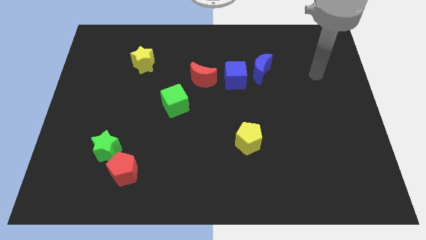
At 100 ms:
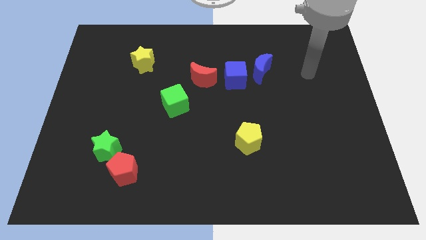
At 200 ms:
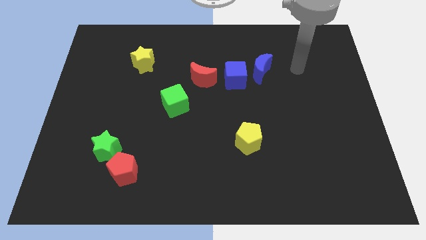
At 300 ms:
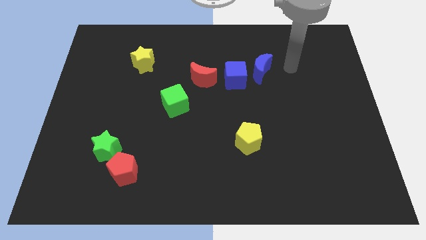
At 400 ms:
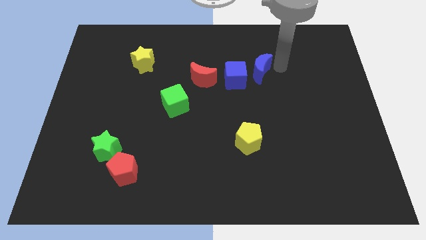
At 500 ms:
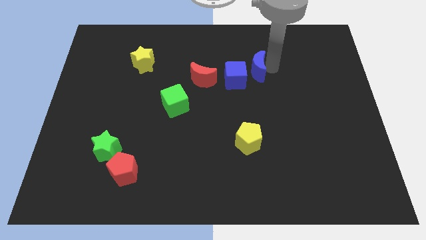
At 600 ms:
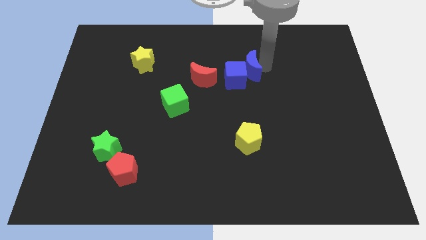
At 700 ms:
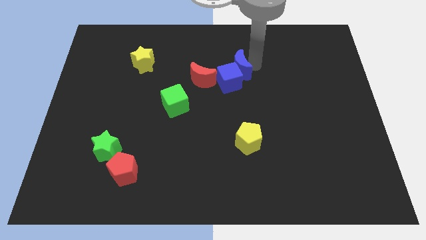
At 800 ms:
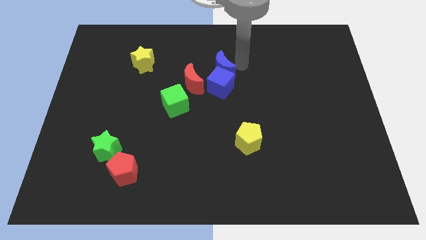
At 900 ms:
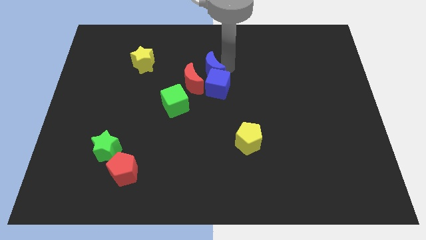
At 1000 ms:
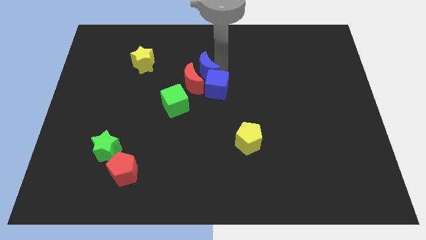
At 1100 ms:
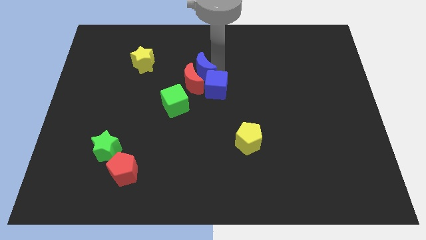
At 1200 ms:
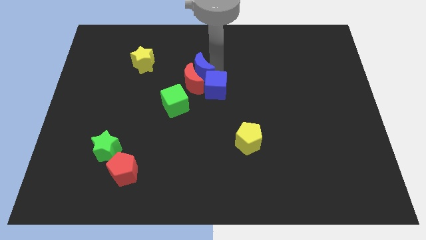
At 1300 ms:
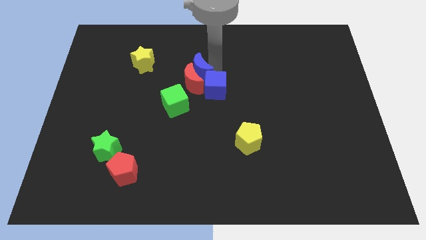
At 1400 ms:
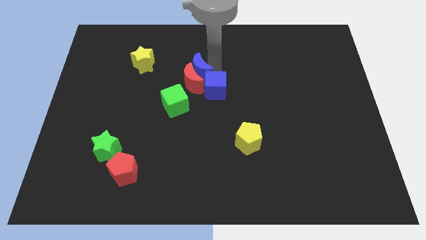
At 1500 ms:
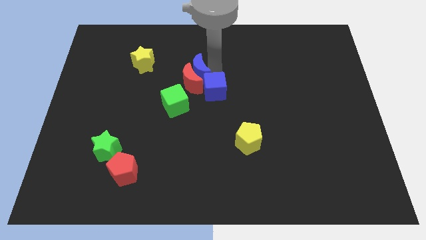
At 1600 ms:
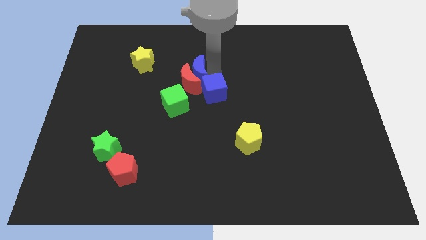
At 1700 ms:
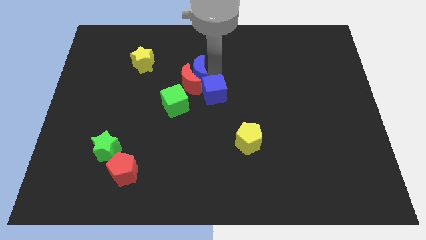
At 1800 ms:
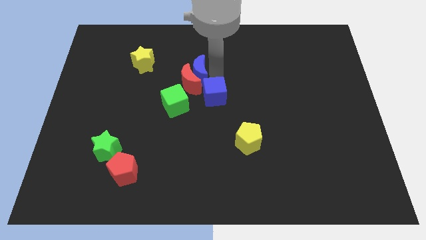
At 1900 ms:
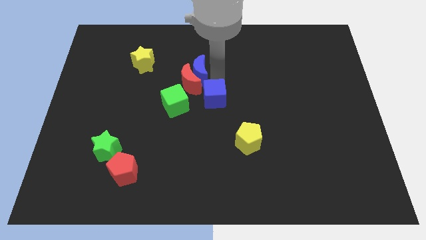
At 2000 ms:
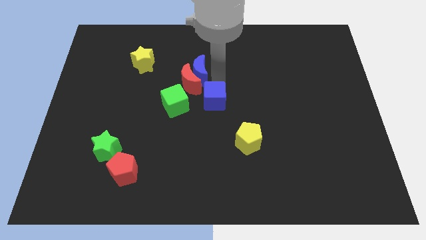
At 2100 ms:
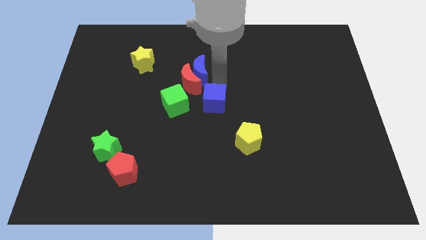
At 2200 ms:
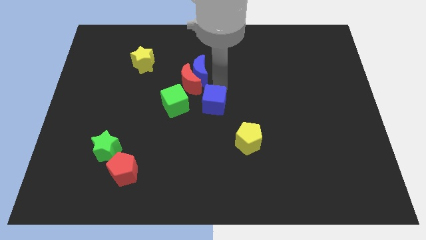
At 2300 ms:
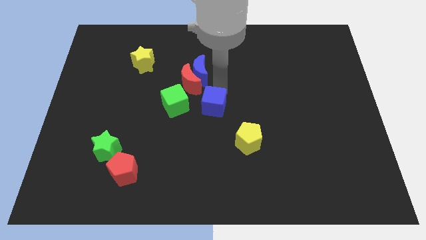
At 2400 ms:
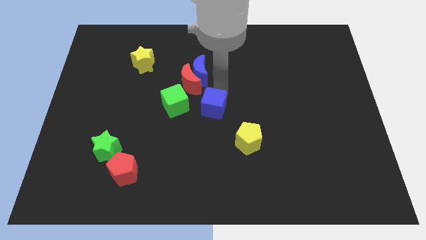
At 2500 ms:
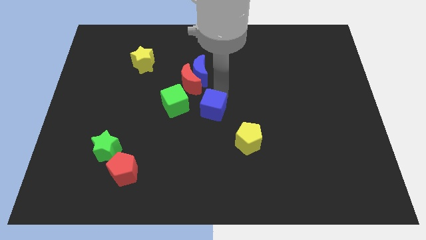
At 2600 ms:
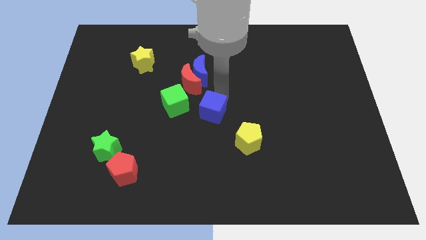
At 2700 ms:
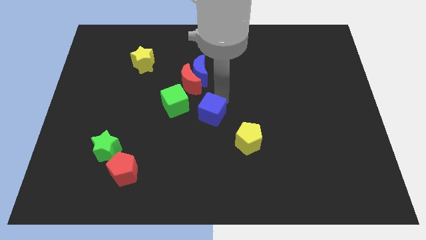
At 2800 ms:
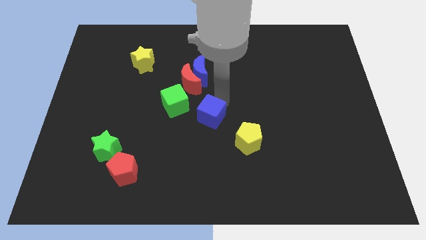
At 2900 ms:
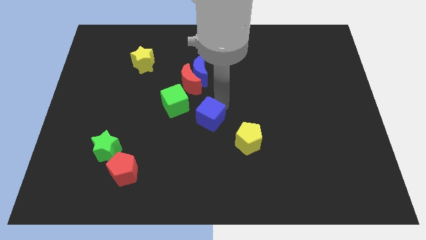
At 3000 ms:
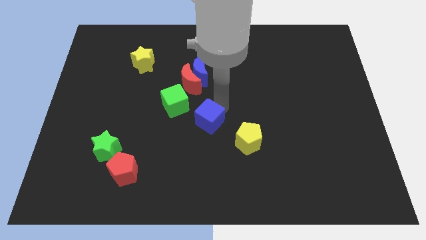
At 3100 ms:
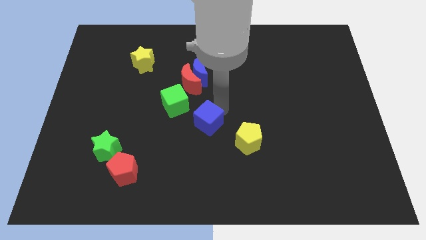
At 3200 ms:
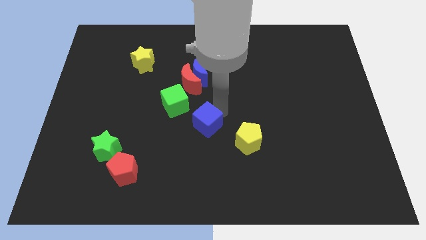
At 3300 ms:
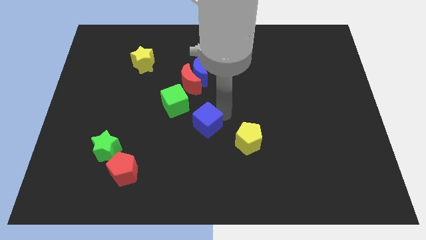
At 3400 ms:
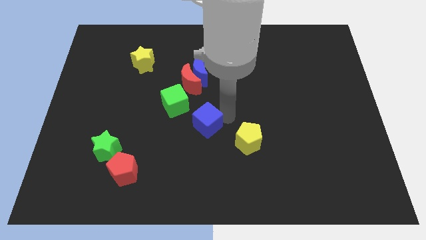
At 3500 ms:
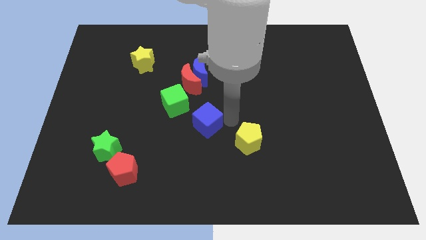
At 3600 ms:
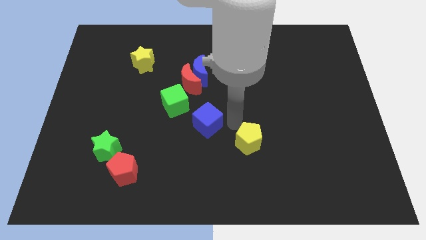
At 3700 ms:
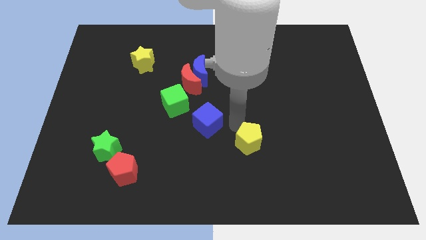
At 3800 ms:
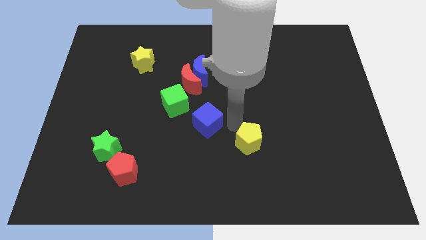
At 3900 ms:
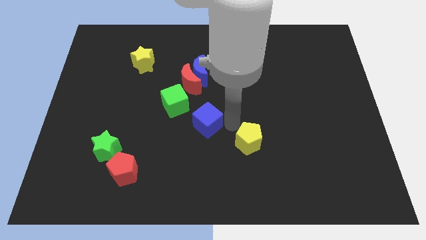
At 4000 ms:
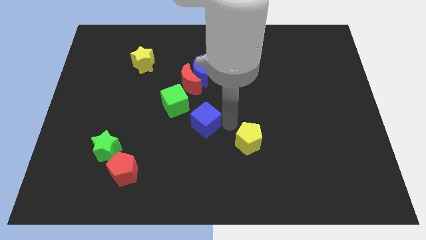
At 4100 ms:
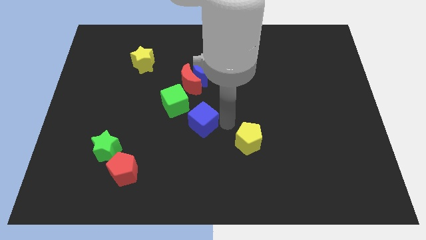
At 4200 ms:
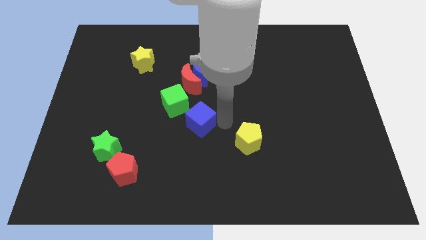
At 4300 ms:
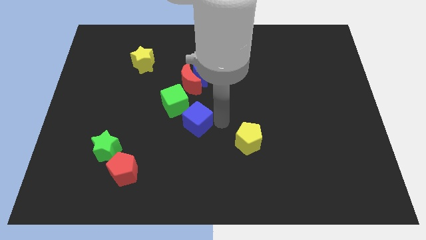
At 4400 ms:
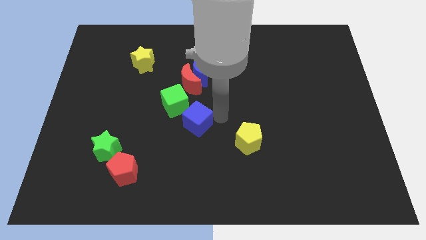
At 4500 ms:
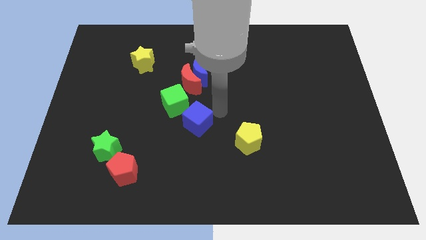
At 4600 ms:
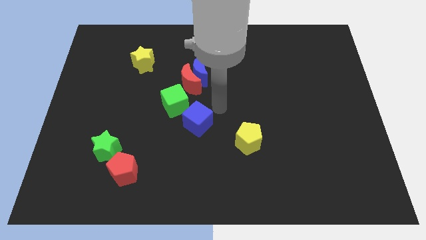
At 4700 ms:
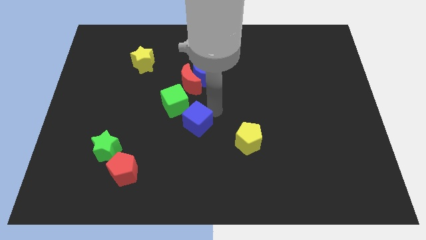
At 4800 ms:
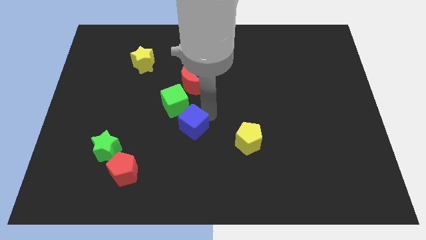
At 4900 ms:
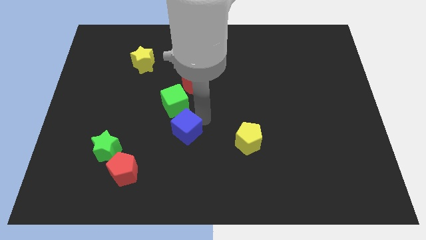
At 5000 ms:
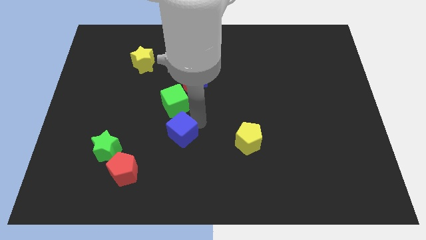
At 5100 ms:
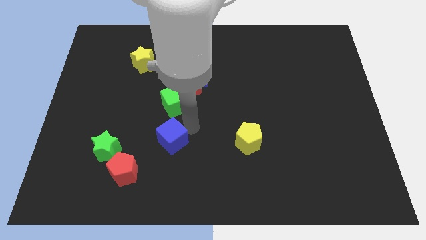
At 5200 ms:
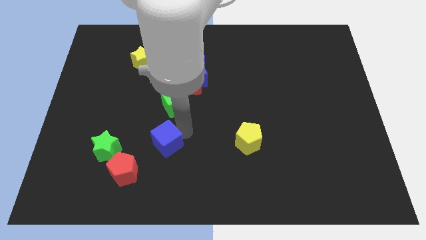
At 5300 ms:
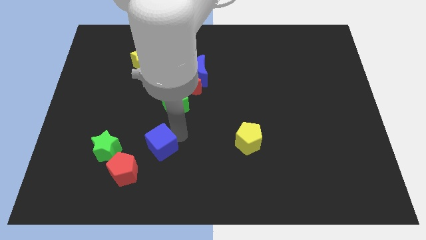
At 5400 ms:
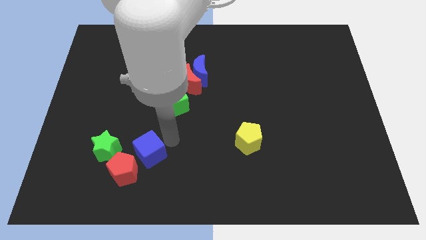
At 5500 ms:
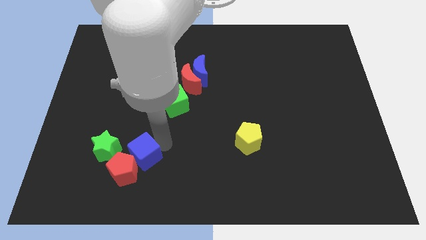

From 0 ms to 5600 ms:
slide the blue cube close to the red pentagon

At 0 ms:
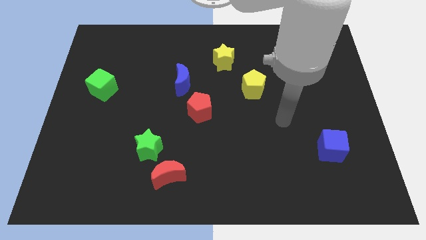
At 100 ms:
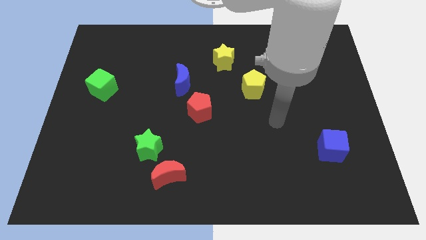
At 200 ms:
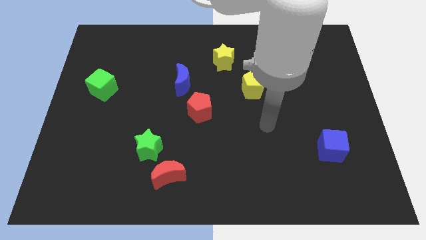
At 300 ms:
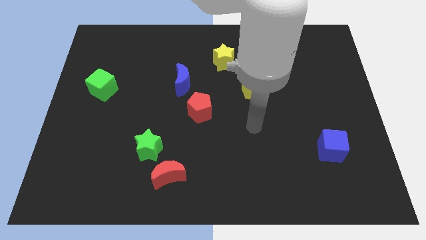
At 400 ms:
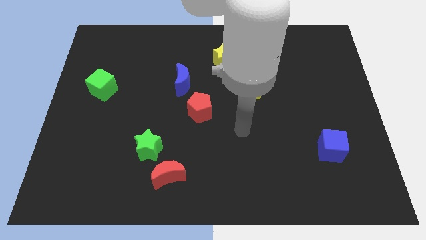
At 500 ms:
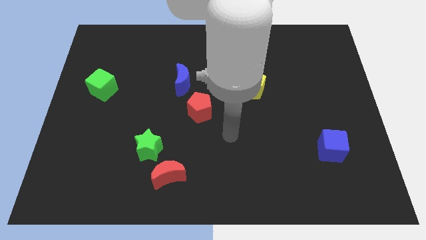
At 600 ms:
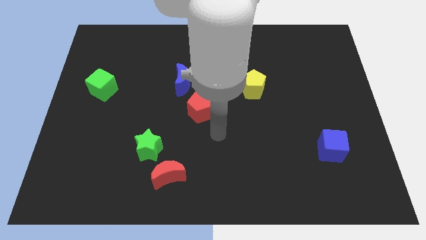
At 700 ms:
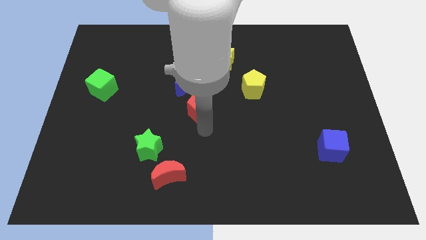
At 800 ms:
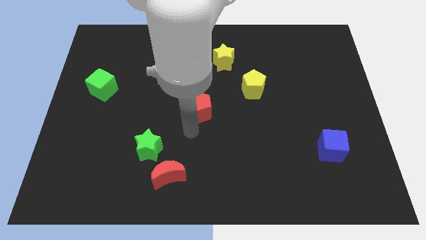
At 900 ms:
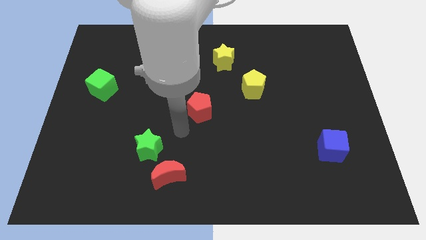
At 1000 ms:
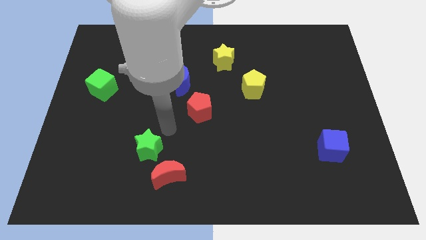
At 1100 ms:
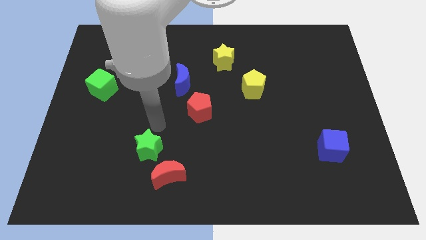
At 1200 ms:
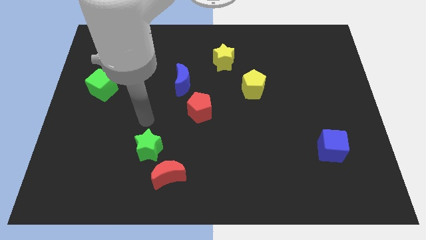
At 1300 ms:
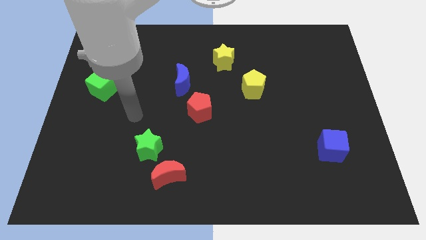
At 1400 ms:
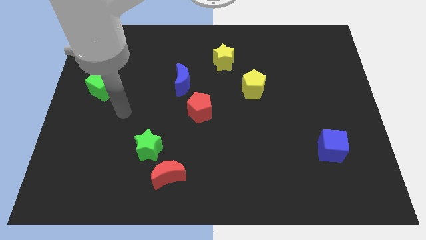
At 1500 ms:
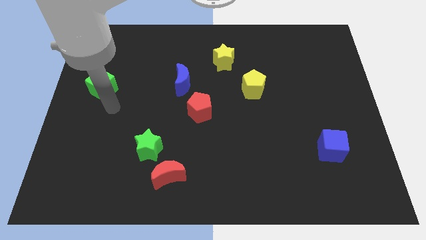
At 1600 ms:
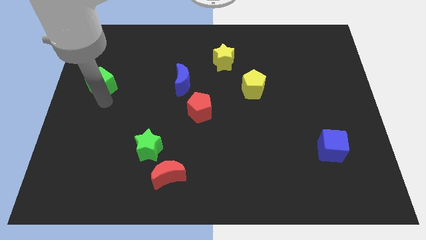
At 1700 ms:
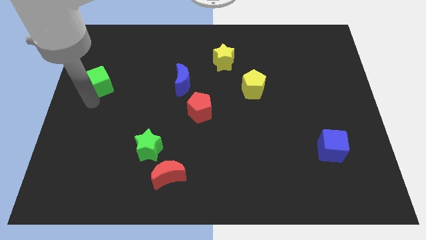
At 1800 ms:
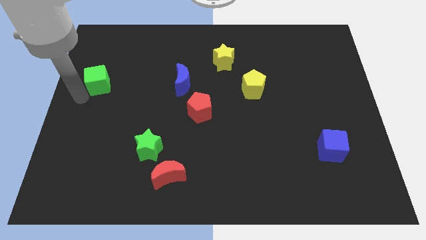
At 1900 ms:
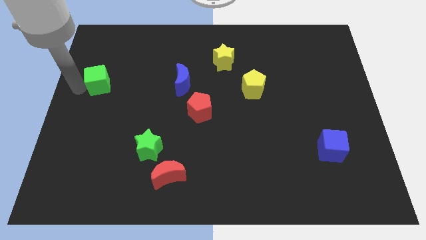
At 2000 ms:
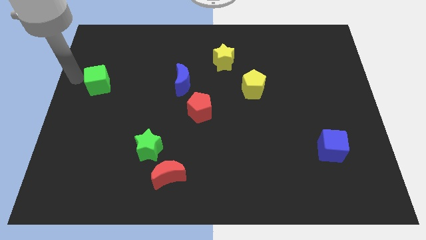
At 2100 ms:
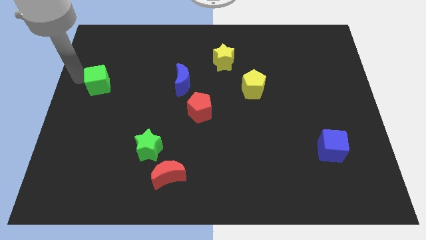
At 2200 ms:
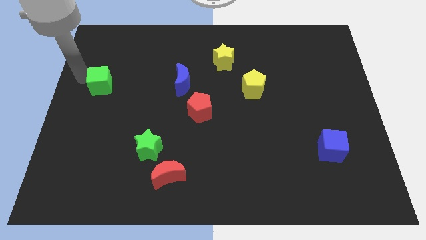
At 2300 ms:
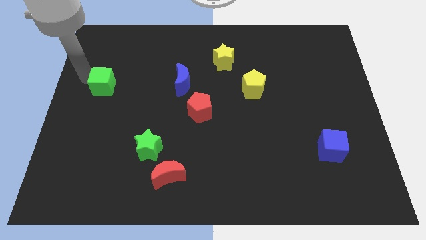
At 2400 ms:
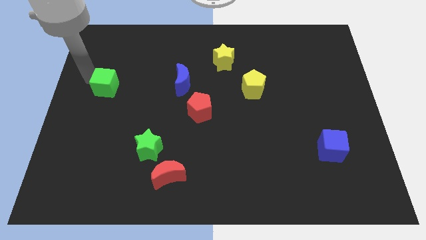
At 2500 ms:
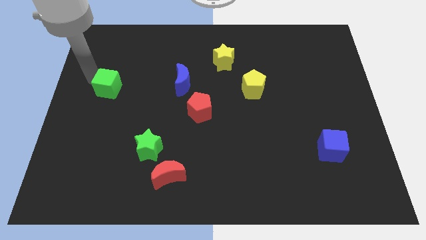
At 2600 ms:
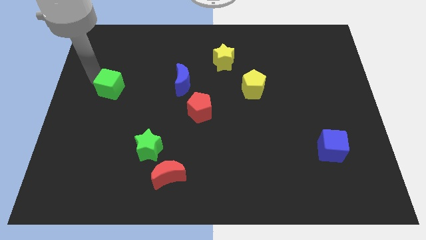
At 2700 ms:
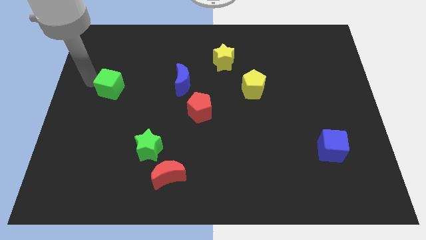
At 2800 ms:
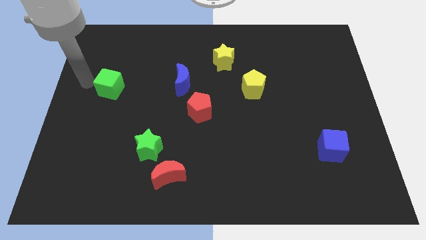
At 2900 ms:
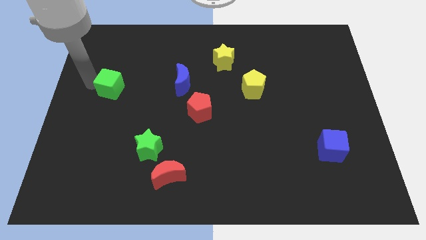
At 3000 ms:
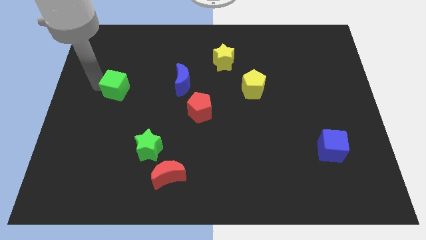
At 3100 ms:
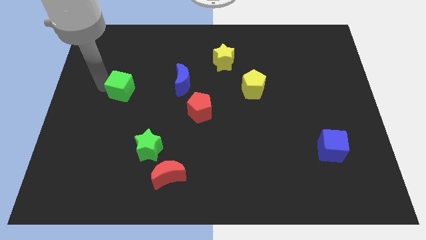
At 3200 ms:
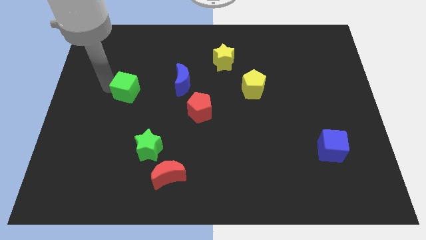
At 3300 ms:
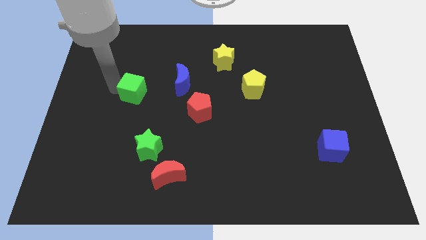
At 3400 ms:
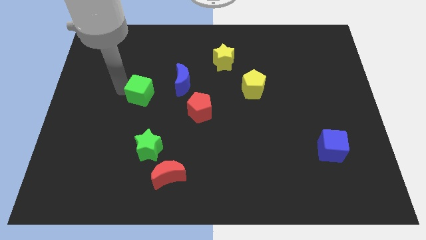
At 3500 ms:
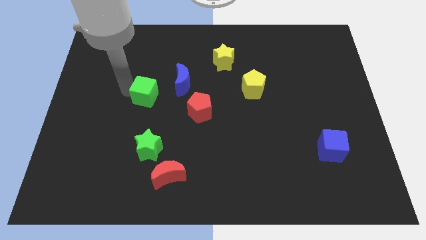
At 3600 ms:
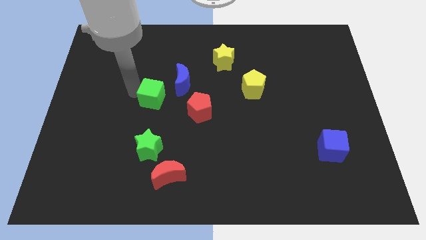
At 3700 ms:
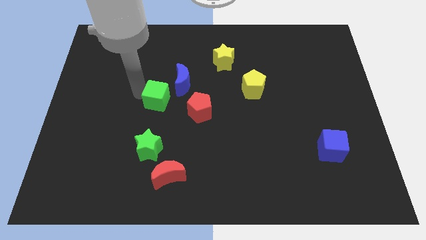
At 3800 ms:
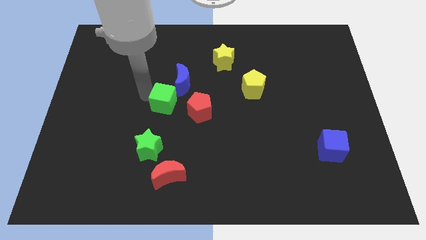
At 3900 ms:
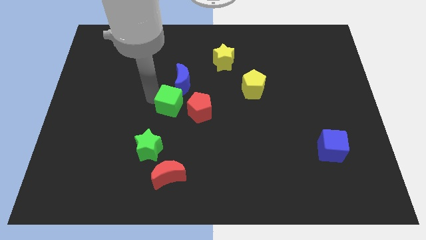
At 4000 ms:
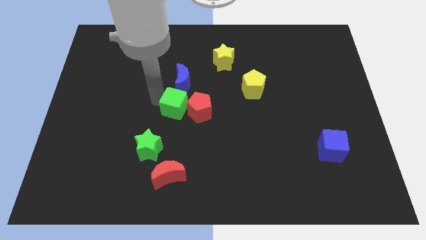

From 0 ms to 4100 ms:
slide the green cube close to the red pentagon
